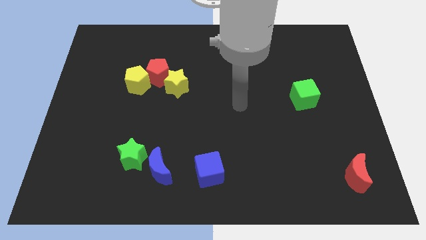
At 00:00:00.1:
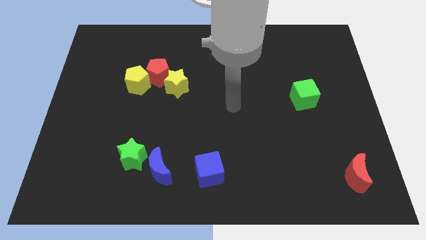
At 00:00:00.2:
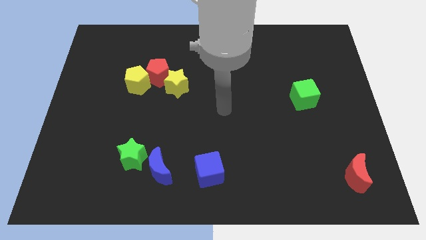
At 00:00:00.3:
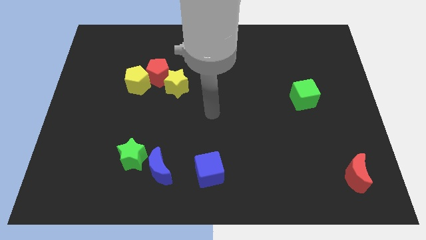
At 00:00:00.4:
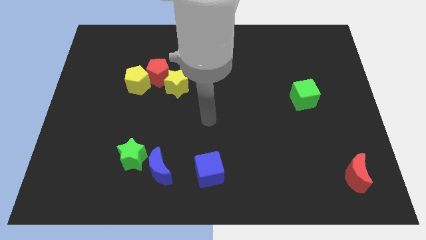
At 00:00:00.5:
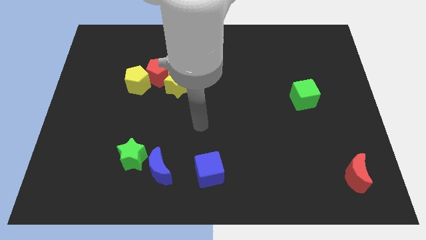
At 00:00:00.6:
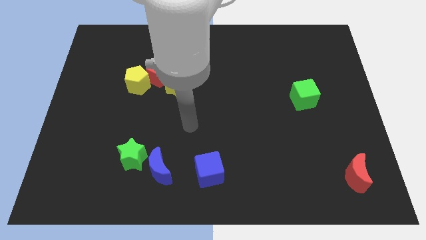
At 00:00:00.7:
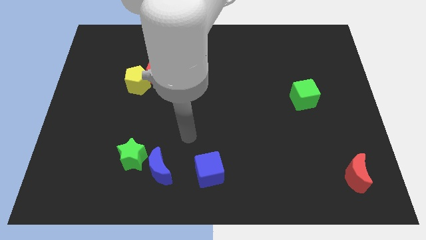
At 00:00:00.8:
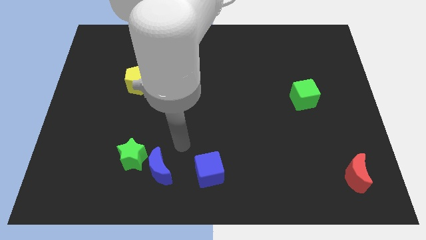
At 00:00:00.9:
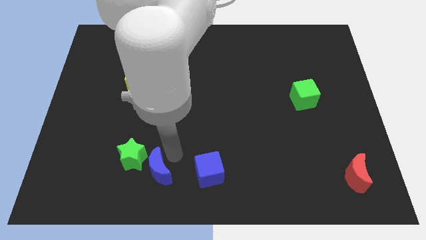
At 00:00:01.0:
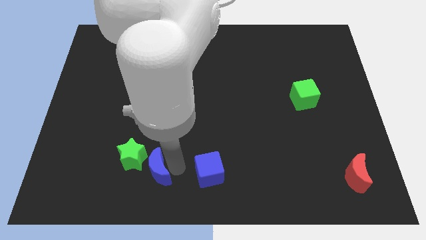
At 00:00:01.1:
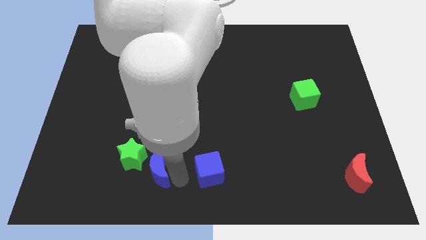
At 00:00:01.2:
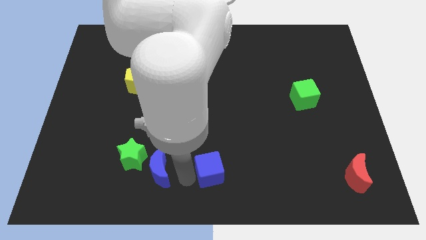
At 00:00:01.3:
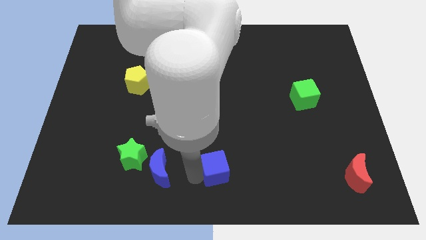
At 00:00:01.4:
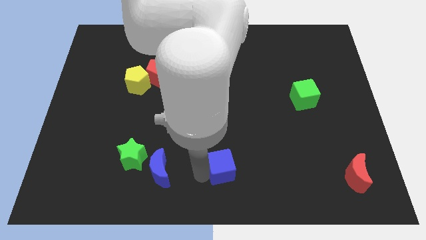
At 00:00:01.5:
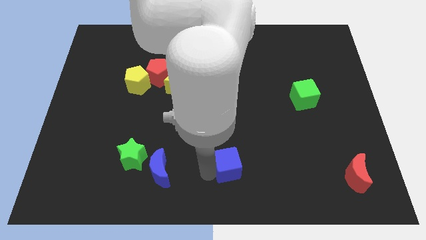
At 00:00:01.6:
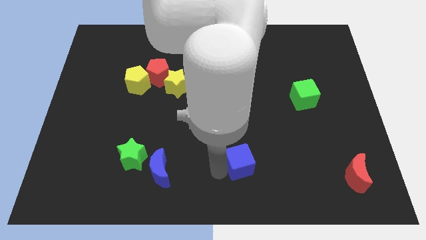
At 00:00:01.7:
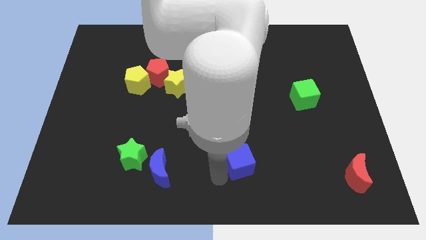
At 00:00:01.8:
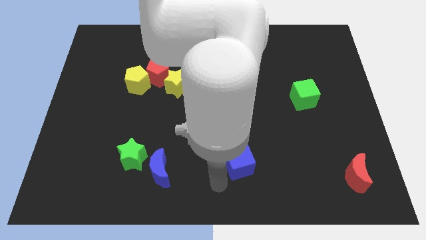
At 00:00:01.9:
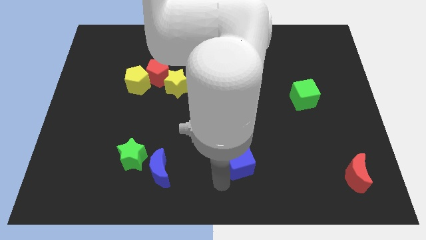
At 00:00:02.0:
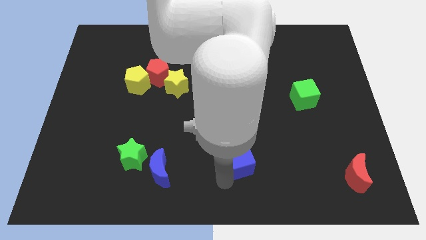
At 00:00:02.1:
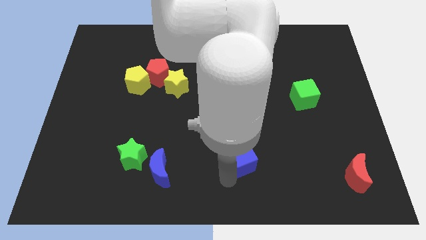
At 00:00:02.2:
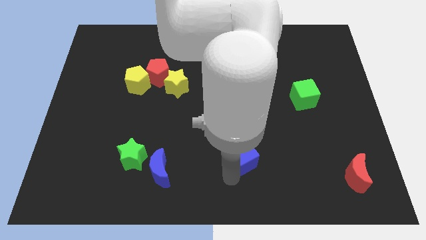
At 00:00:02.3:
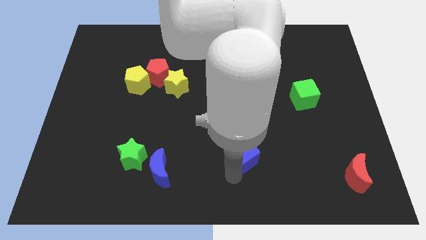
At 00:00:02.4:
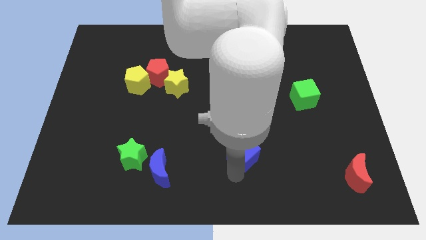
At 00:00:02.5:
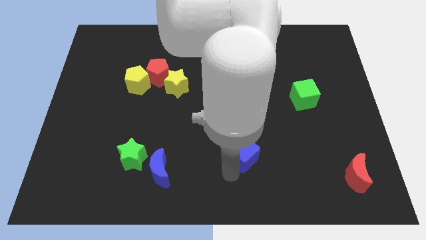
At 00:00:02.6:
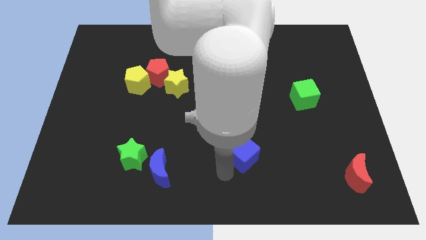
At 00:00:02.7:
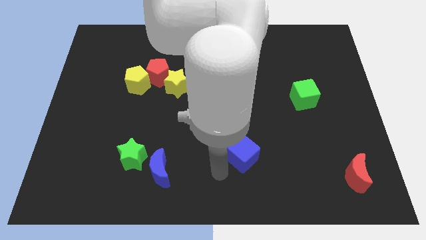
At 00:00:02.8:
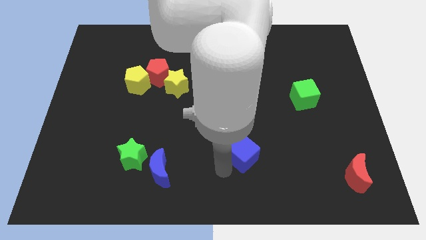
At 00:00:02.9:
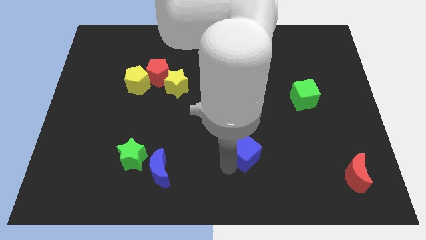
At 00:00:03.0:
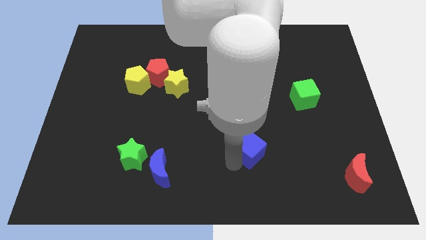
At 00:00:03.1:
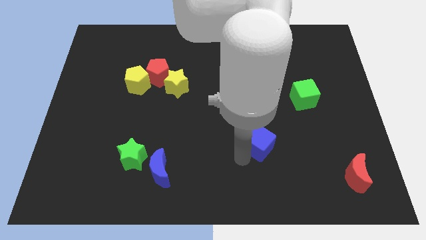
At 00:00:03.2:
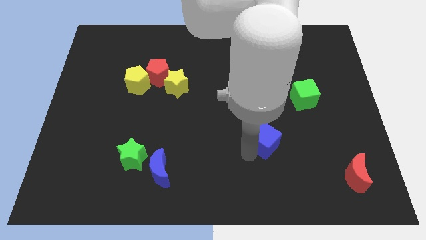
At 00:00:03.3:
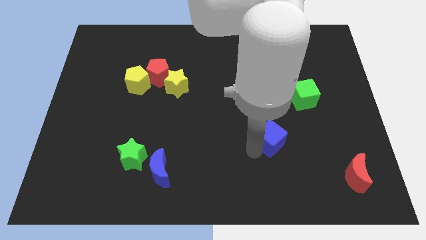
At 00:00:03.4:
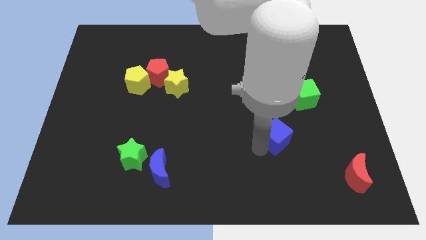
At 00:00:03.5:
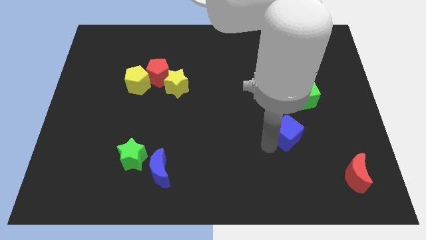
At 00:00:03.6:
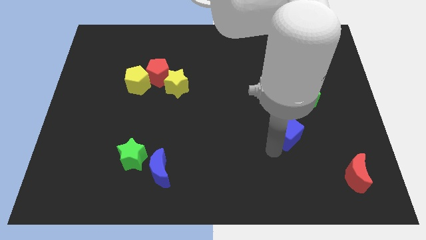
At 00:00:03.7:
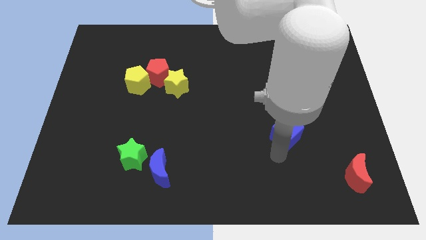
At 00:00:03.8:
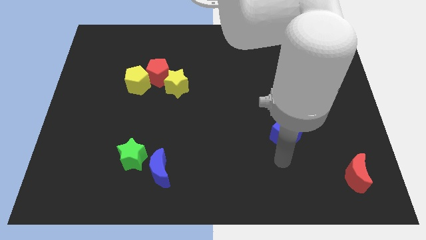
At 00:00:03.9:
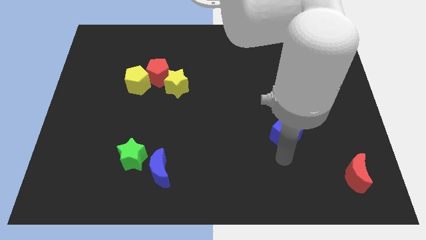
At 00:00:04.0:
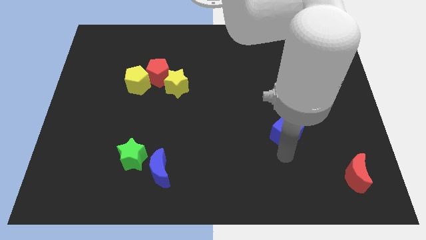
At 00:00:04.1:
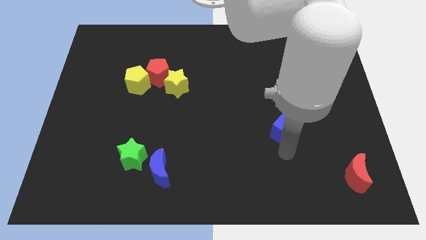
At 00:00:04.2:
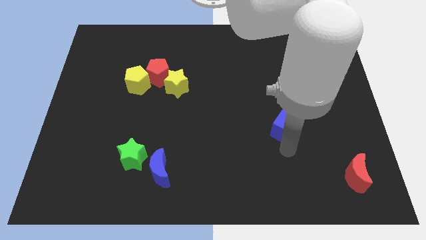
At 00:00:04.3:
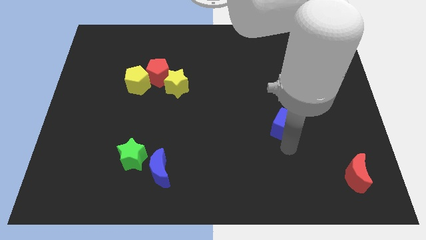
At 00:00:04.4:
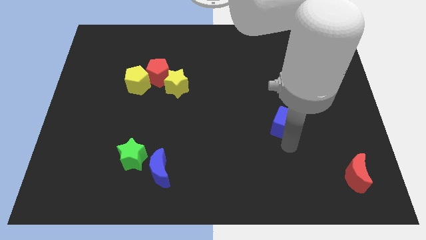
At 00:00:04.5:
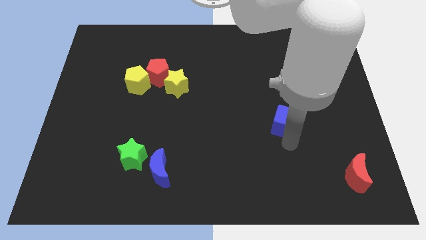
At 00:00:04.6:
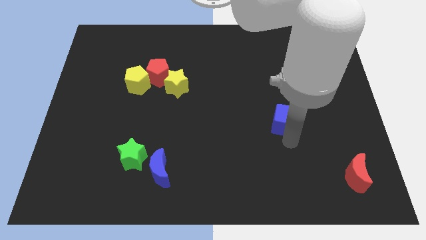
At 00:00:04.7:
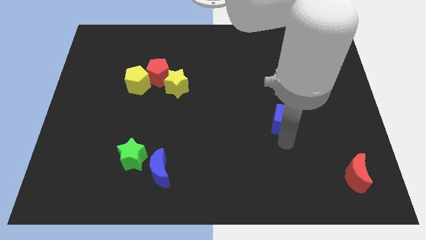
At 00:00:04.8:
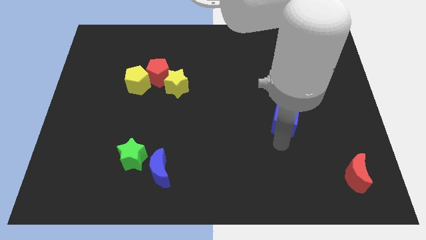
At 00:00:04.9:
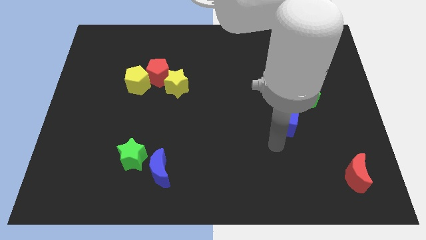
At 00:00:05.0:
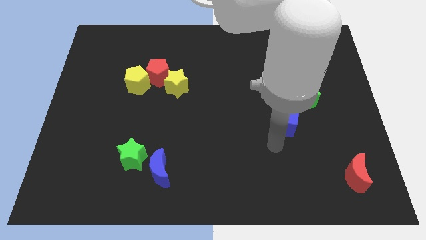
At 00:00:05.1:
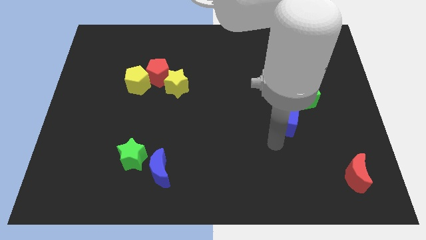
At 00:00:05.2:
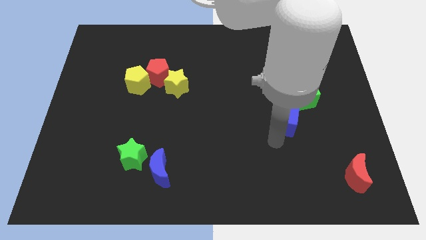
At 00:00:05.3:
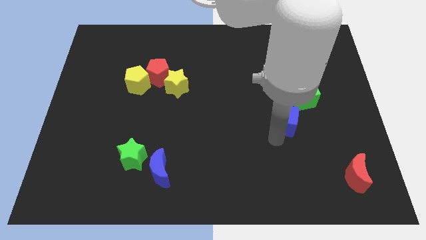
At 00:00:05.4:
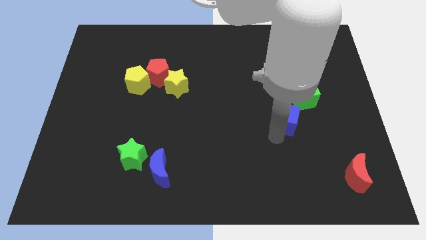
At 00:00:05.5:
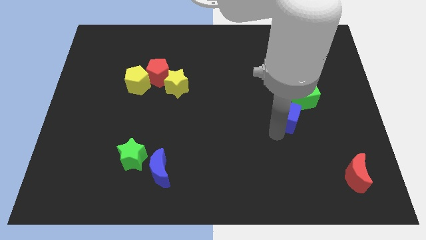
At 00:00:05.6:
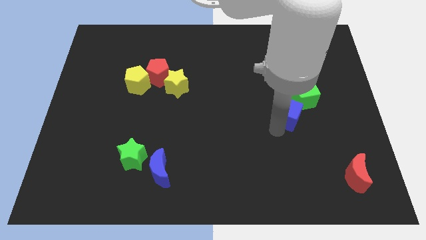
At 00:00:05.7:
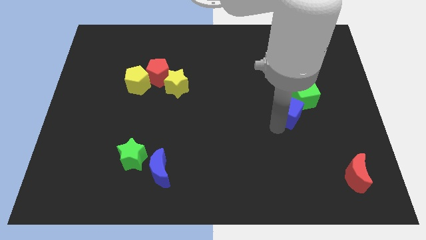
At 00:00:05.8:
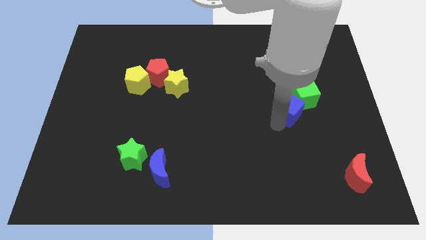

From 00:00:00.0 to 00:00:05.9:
move the blue cube next to the green cube

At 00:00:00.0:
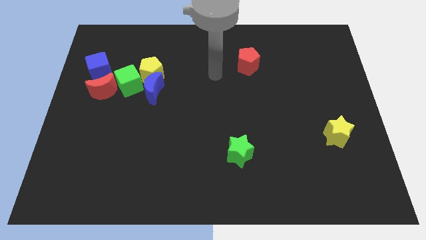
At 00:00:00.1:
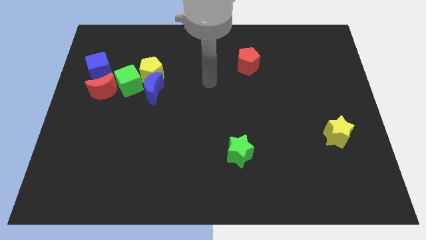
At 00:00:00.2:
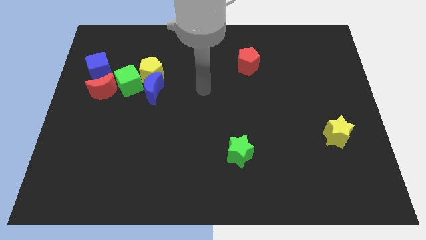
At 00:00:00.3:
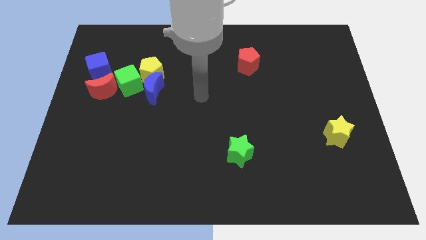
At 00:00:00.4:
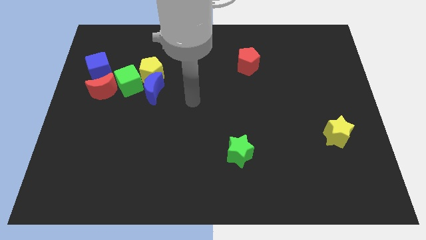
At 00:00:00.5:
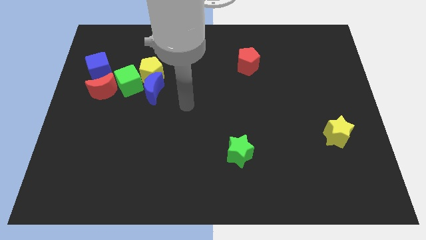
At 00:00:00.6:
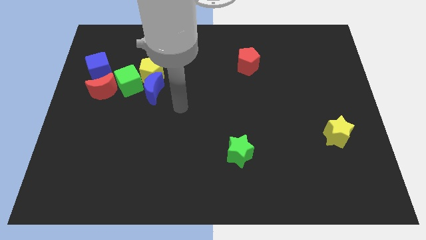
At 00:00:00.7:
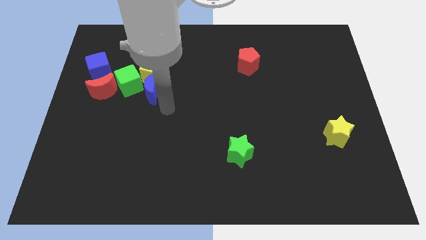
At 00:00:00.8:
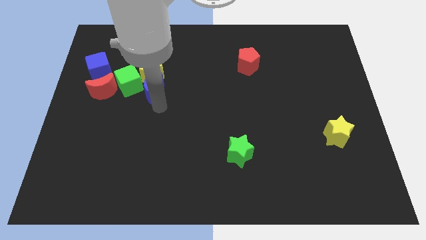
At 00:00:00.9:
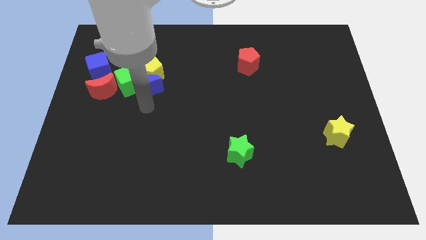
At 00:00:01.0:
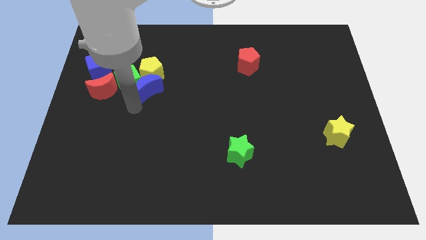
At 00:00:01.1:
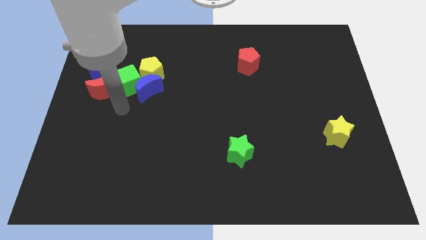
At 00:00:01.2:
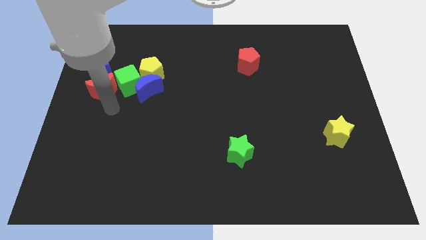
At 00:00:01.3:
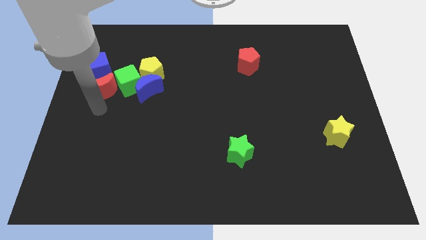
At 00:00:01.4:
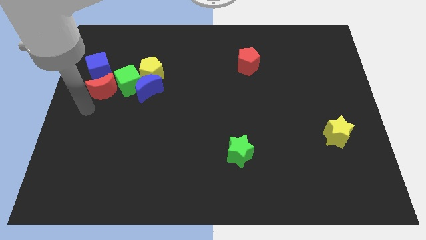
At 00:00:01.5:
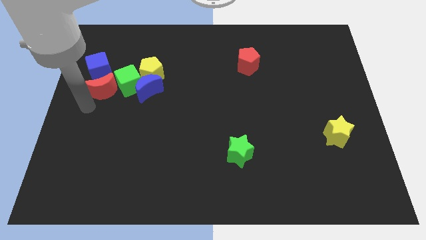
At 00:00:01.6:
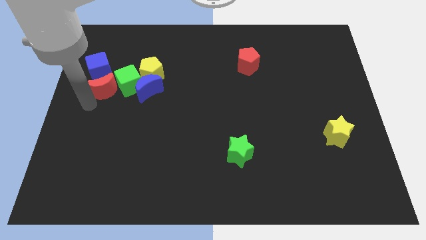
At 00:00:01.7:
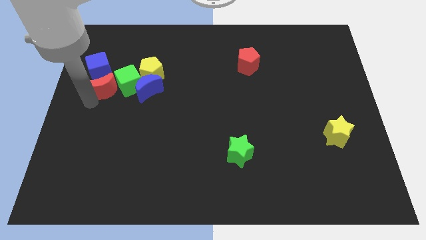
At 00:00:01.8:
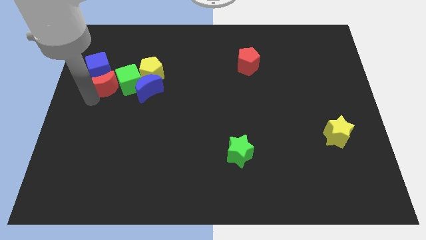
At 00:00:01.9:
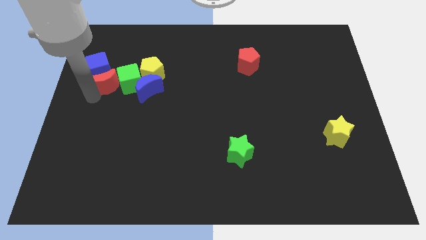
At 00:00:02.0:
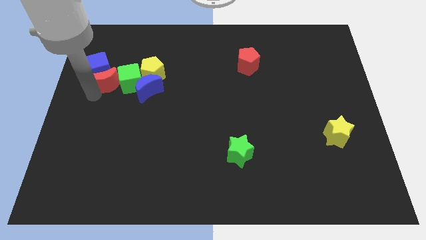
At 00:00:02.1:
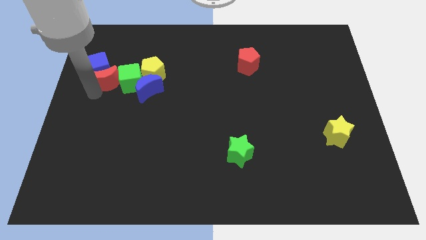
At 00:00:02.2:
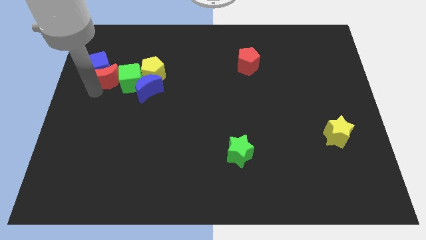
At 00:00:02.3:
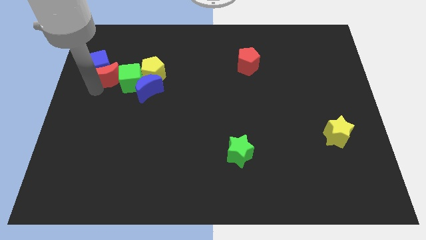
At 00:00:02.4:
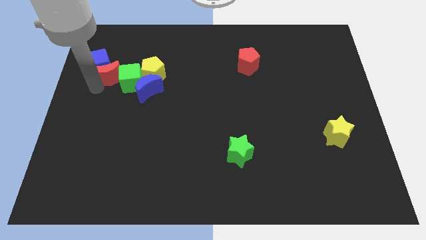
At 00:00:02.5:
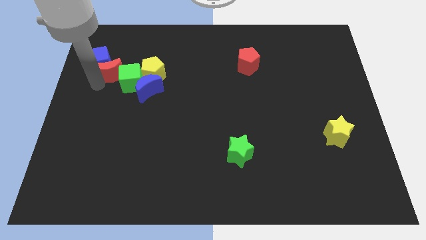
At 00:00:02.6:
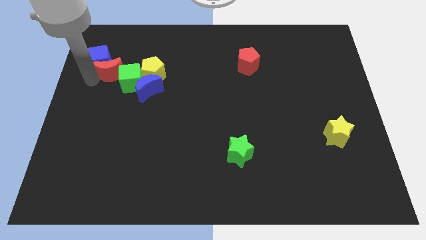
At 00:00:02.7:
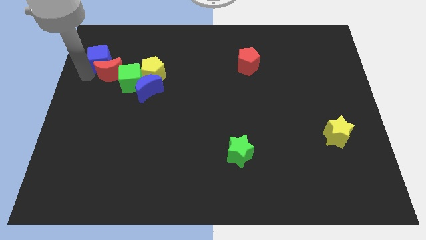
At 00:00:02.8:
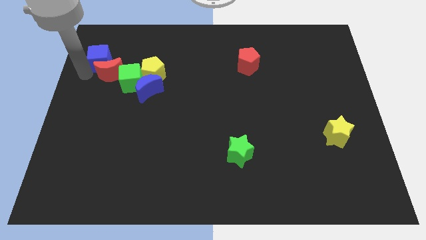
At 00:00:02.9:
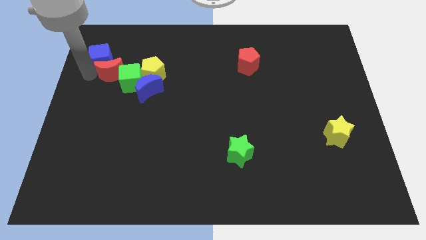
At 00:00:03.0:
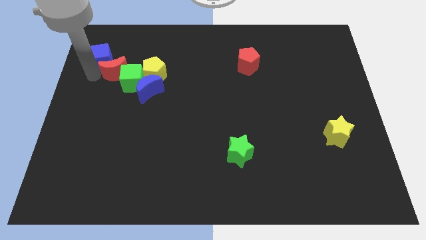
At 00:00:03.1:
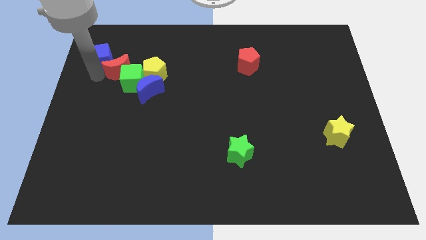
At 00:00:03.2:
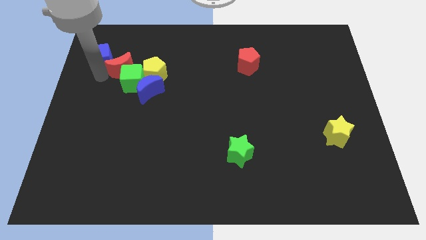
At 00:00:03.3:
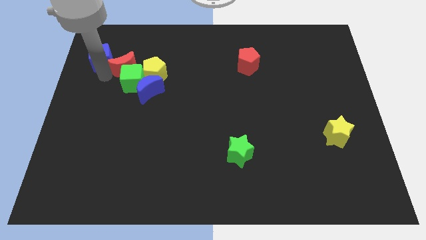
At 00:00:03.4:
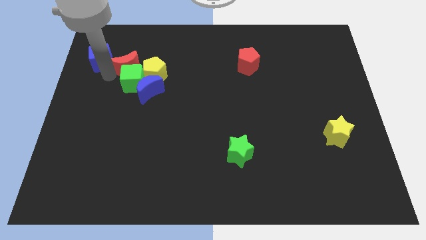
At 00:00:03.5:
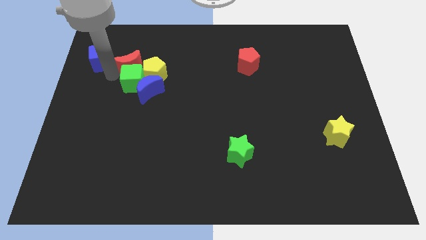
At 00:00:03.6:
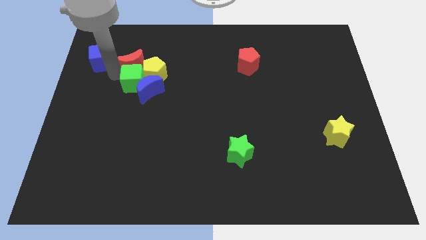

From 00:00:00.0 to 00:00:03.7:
slide the red moon close to the yellow pentagon
